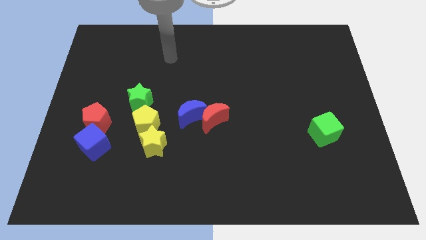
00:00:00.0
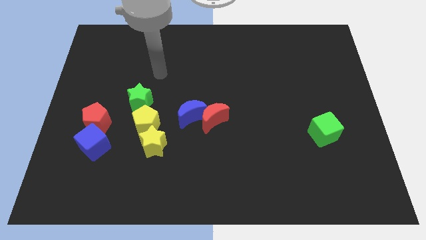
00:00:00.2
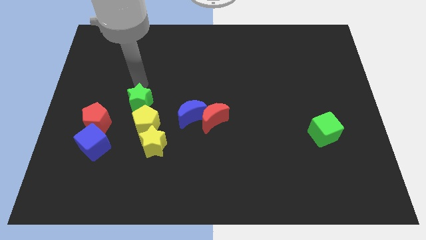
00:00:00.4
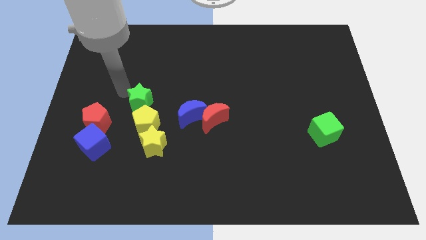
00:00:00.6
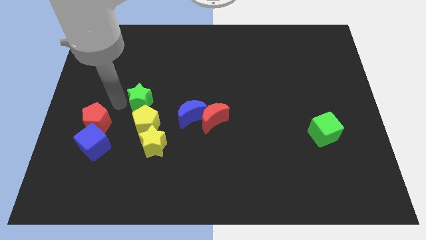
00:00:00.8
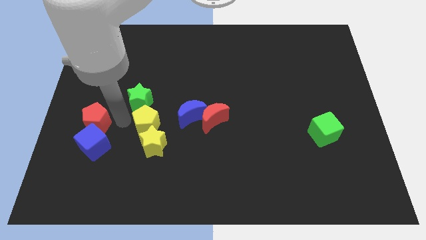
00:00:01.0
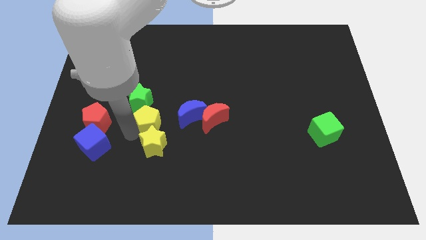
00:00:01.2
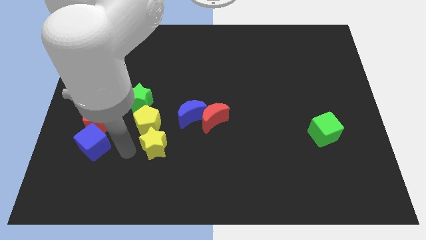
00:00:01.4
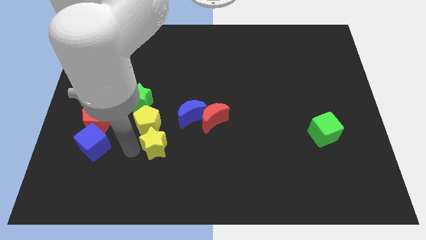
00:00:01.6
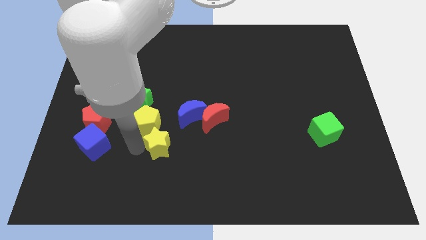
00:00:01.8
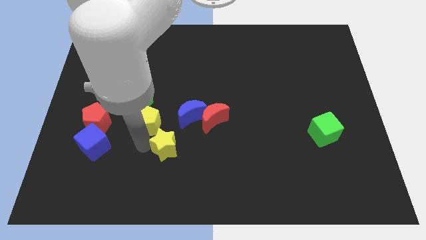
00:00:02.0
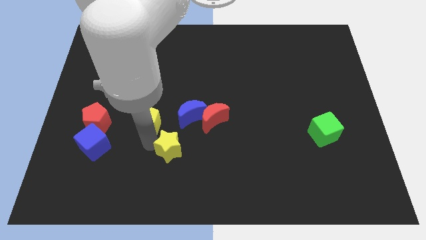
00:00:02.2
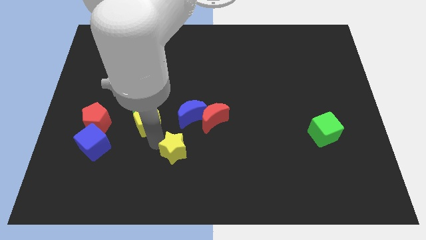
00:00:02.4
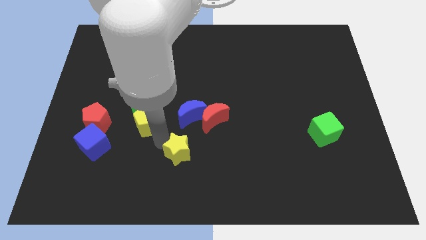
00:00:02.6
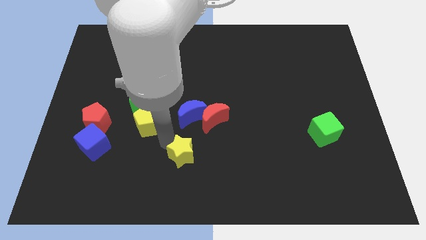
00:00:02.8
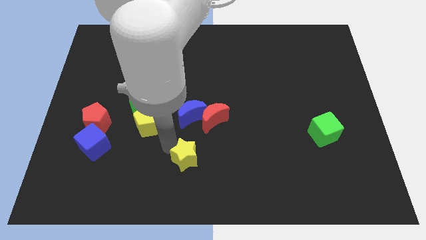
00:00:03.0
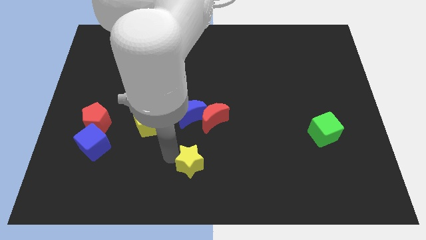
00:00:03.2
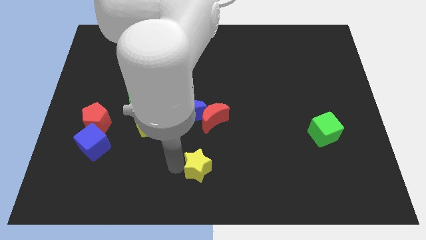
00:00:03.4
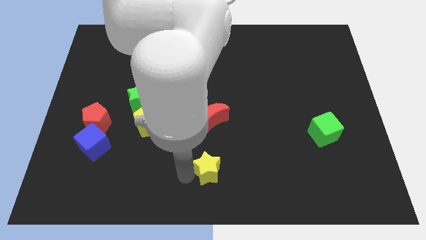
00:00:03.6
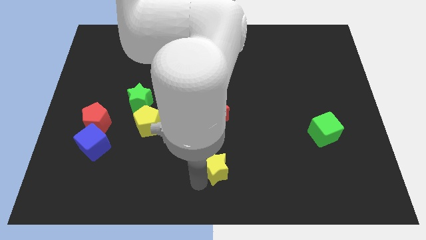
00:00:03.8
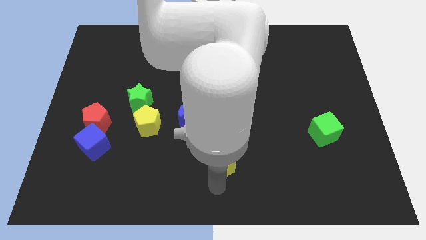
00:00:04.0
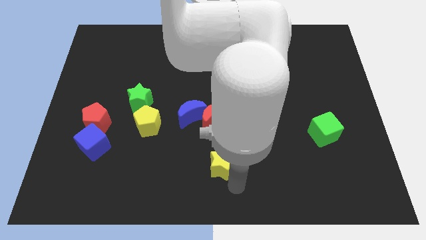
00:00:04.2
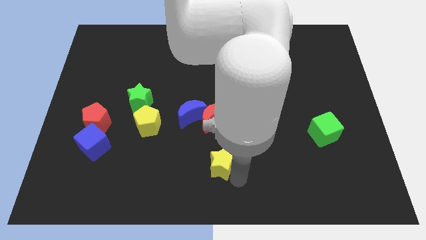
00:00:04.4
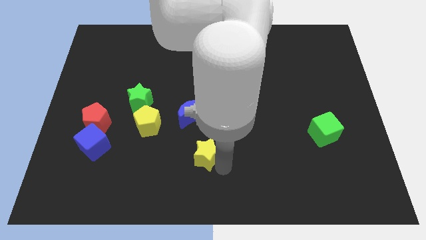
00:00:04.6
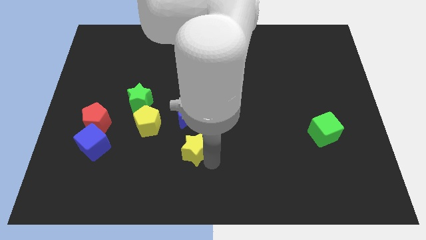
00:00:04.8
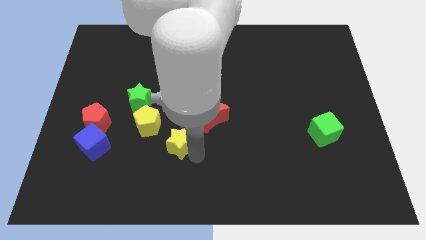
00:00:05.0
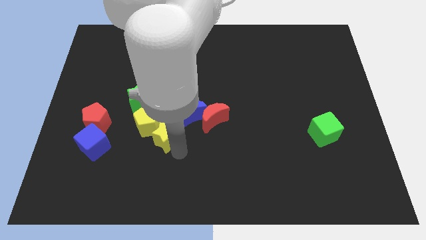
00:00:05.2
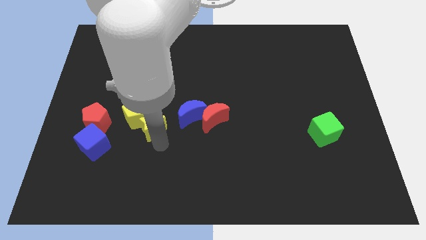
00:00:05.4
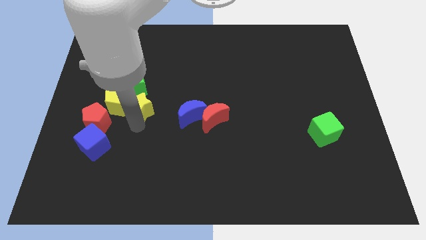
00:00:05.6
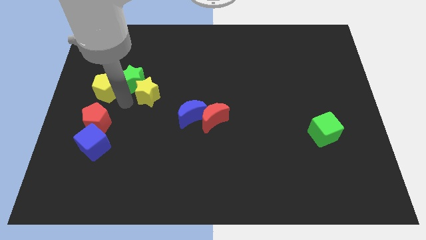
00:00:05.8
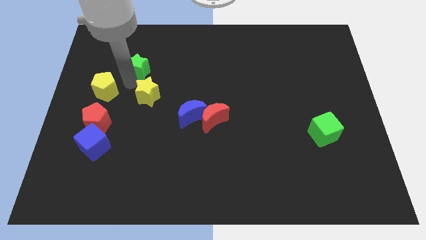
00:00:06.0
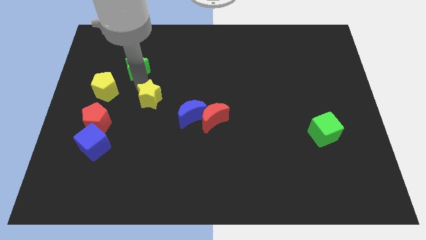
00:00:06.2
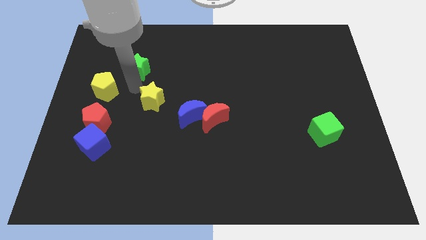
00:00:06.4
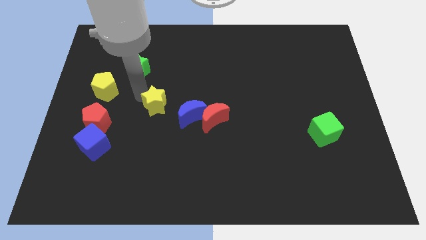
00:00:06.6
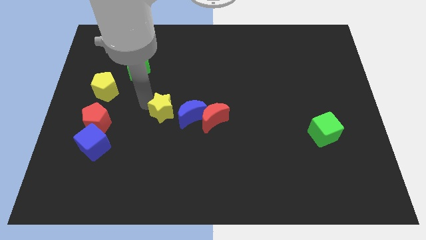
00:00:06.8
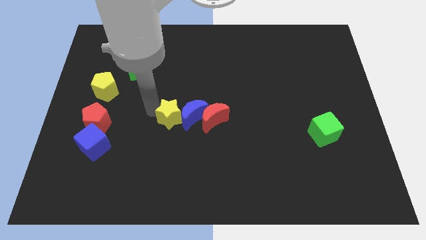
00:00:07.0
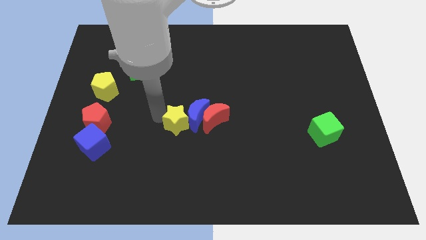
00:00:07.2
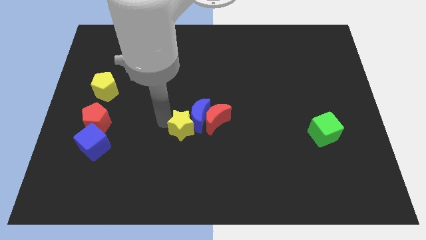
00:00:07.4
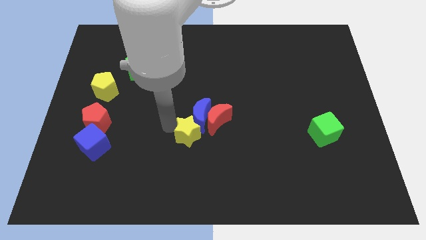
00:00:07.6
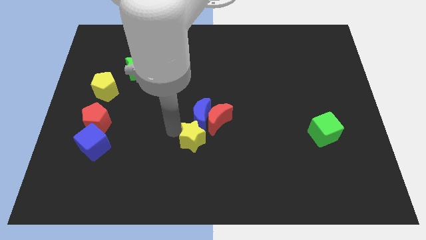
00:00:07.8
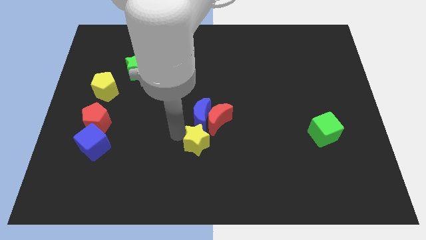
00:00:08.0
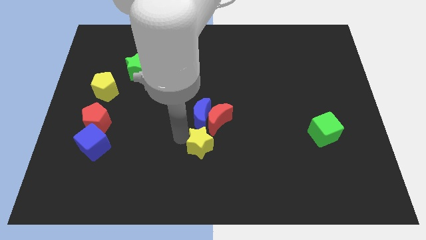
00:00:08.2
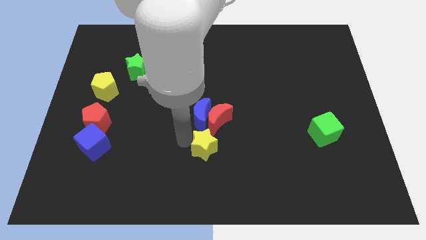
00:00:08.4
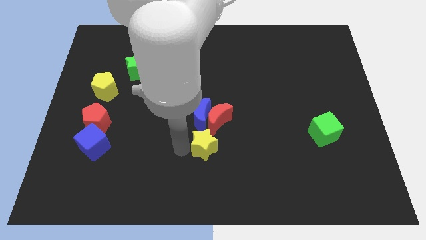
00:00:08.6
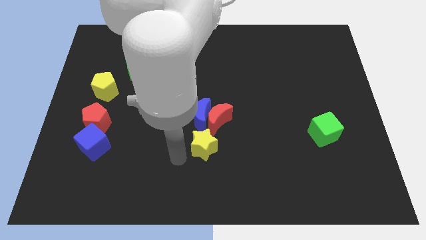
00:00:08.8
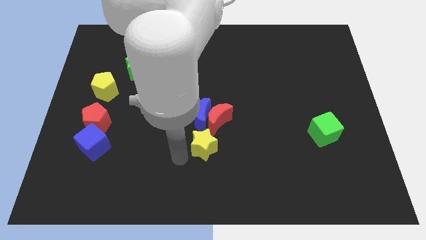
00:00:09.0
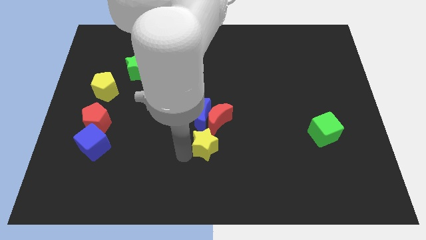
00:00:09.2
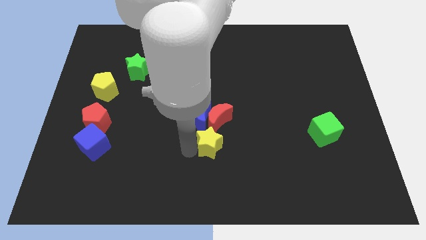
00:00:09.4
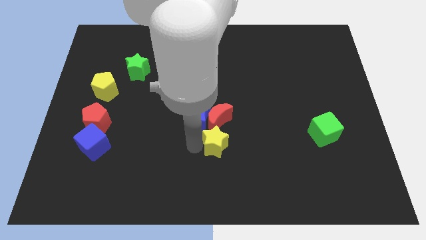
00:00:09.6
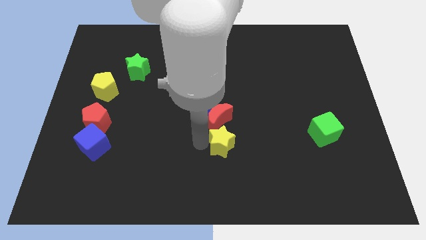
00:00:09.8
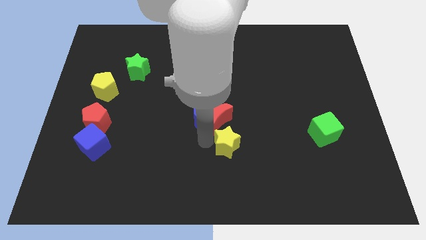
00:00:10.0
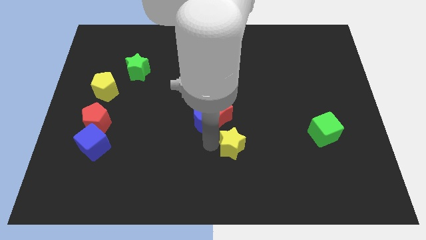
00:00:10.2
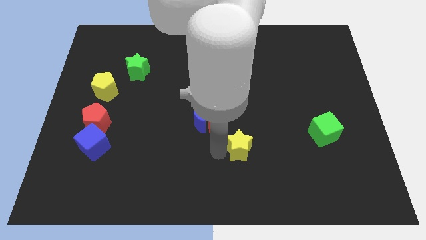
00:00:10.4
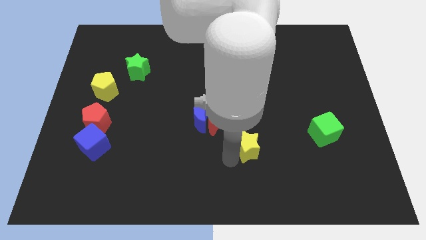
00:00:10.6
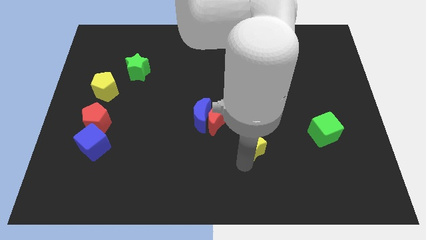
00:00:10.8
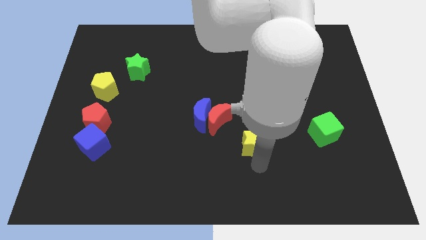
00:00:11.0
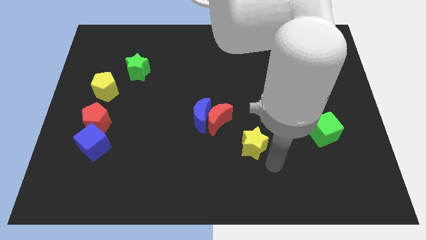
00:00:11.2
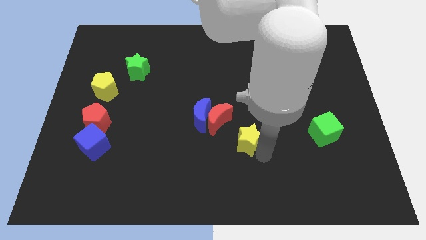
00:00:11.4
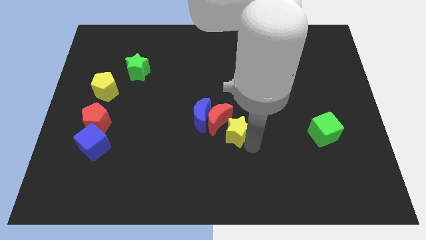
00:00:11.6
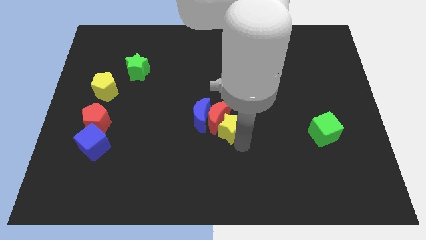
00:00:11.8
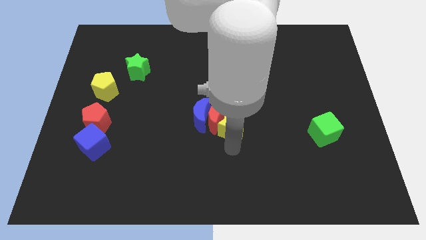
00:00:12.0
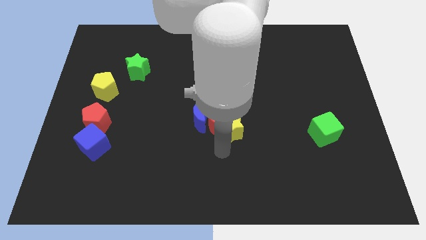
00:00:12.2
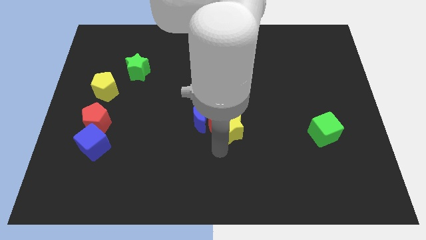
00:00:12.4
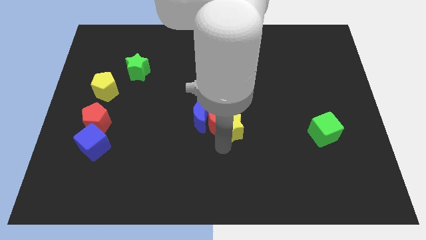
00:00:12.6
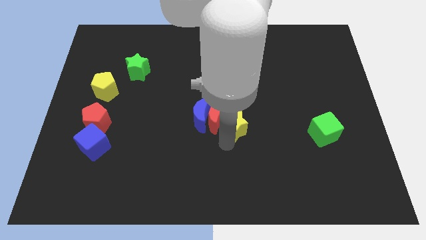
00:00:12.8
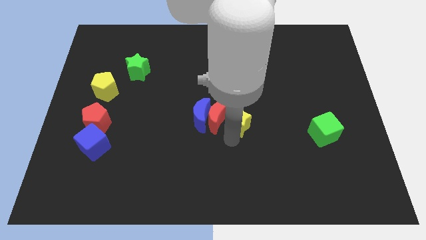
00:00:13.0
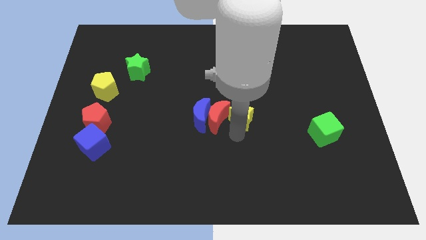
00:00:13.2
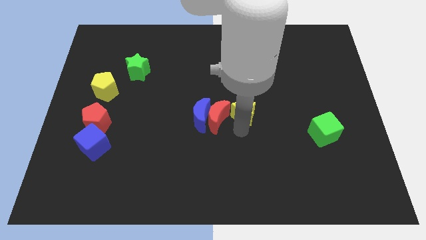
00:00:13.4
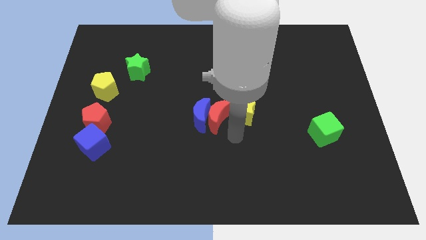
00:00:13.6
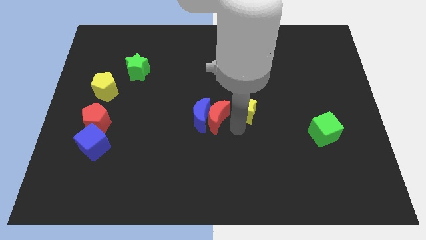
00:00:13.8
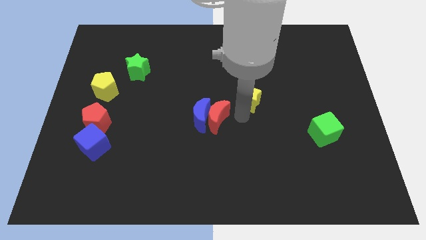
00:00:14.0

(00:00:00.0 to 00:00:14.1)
push the yellow star upwards and right diagonally

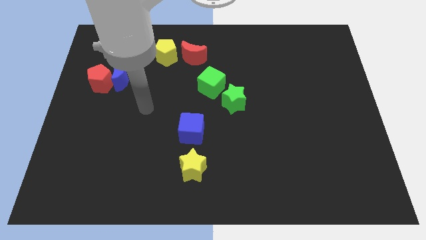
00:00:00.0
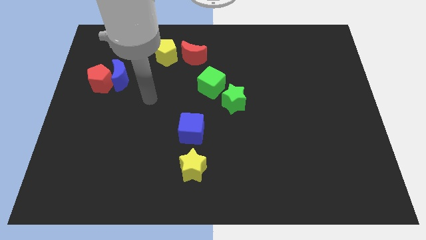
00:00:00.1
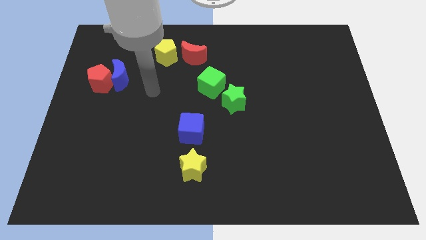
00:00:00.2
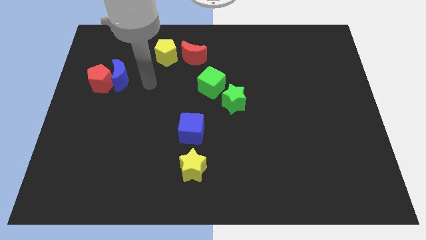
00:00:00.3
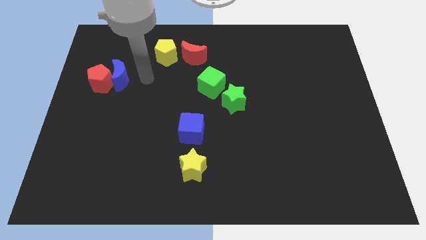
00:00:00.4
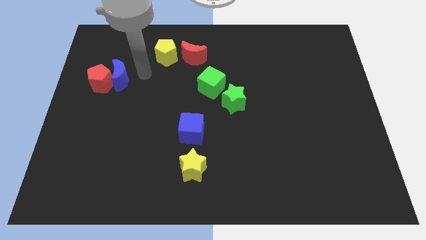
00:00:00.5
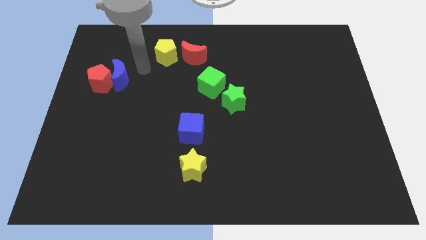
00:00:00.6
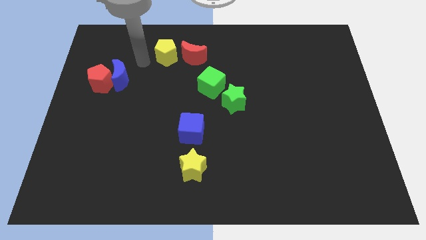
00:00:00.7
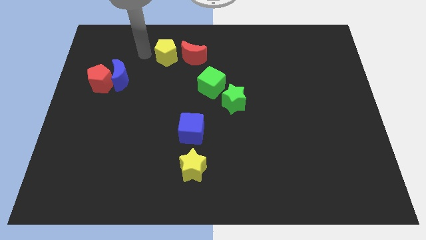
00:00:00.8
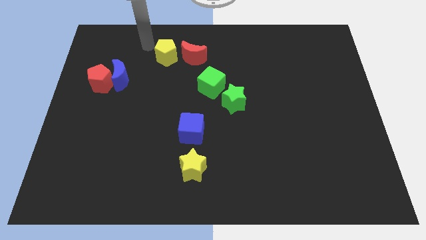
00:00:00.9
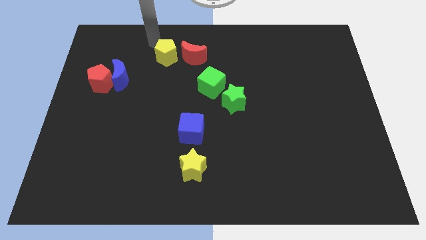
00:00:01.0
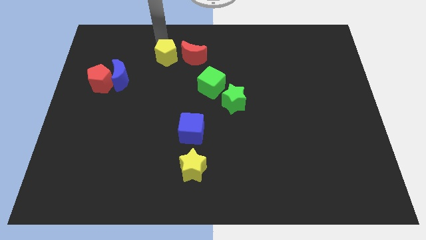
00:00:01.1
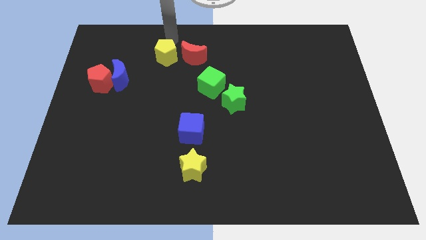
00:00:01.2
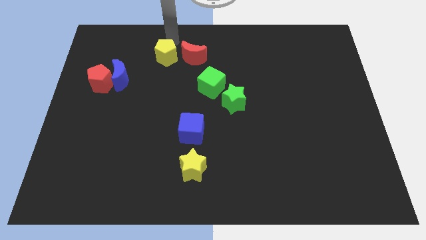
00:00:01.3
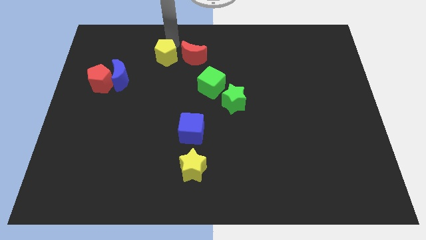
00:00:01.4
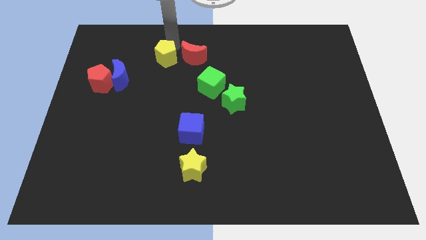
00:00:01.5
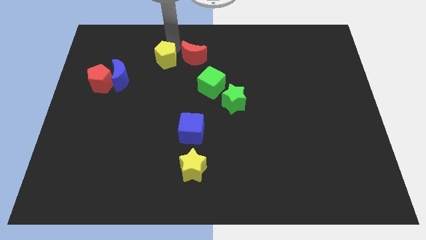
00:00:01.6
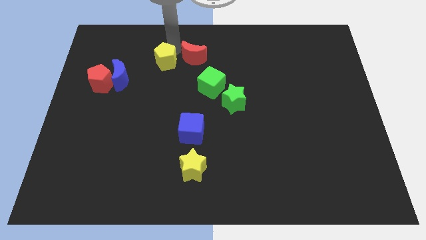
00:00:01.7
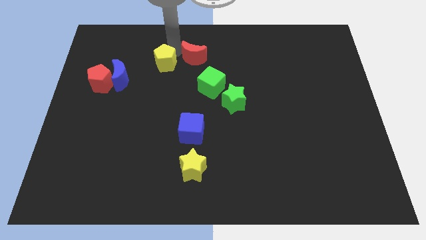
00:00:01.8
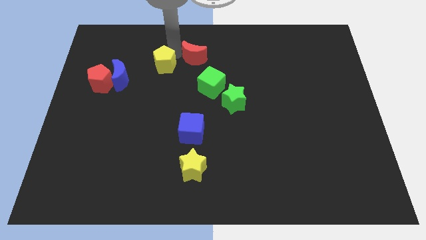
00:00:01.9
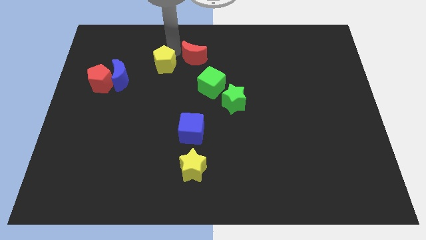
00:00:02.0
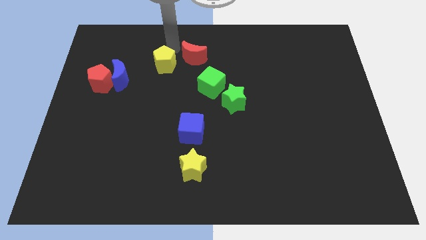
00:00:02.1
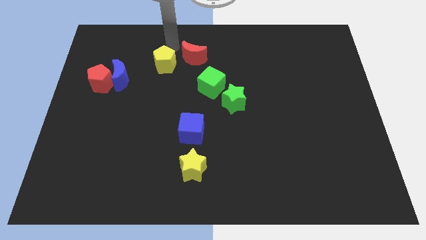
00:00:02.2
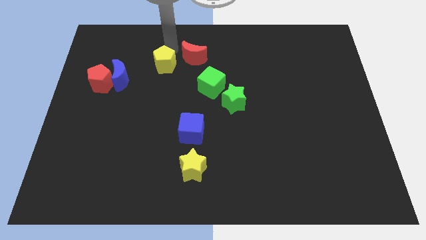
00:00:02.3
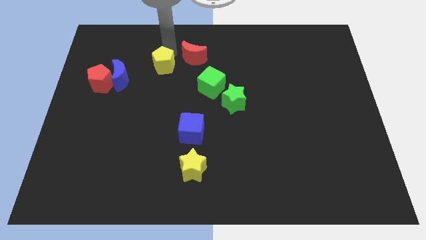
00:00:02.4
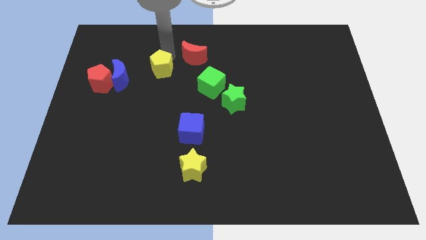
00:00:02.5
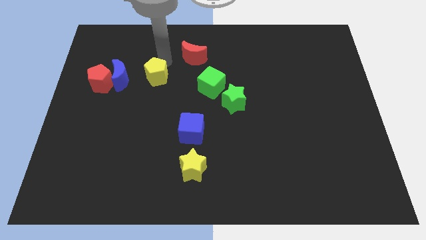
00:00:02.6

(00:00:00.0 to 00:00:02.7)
slightly slide the yellow pentagon downwards
